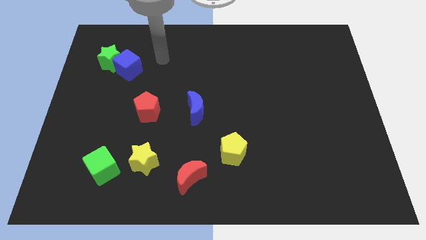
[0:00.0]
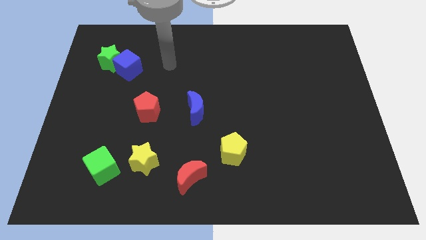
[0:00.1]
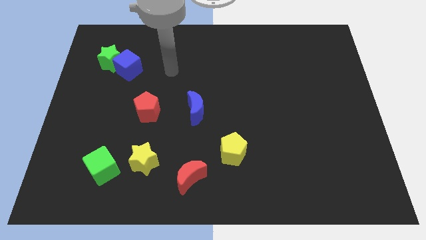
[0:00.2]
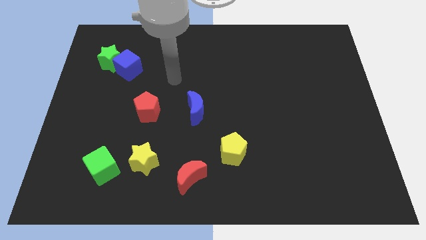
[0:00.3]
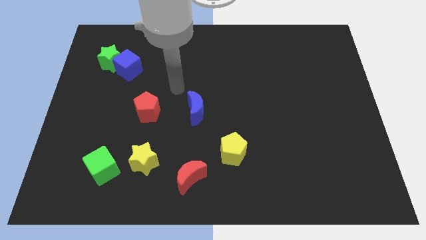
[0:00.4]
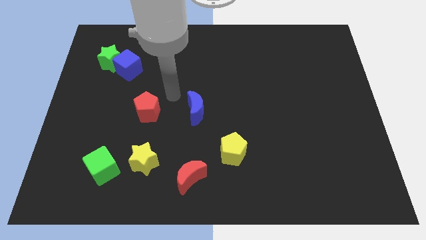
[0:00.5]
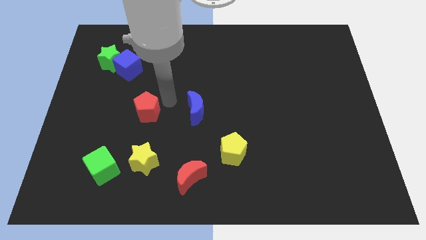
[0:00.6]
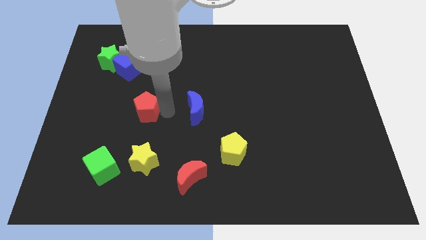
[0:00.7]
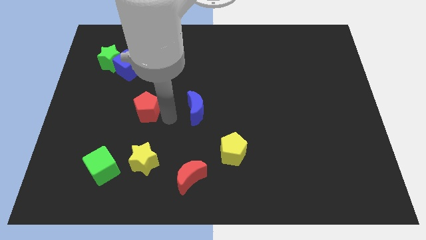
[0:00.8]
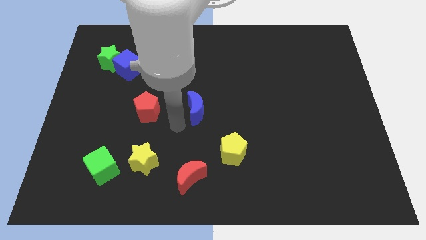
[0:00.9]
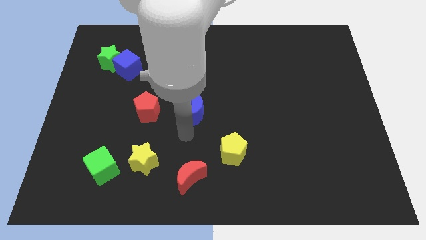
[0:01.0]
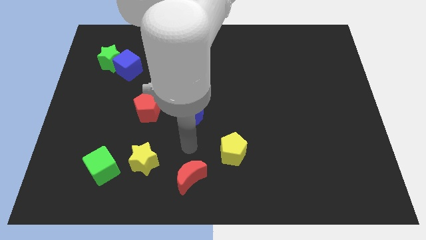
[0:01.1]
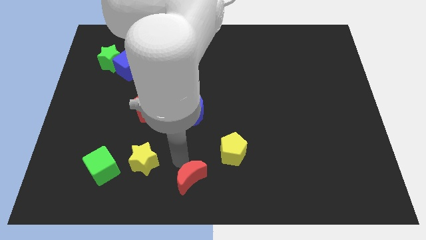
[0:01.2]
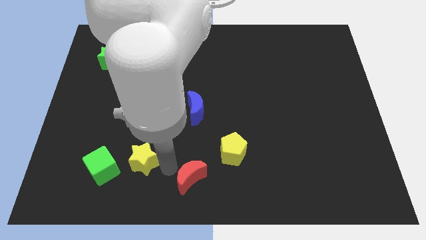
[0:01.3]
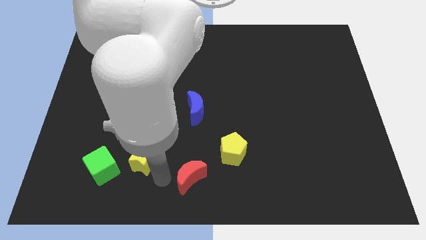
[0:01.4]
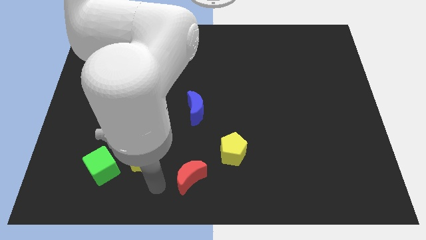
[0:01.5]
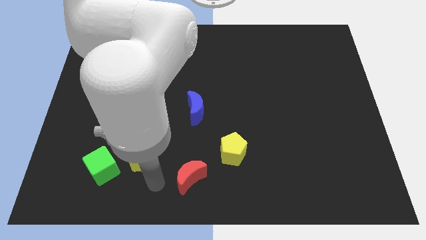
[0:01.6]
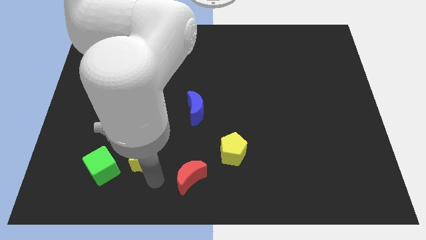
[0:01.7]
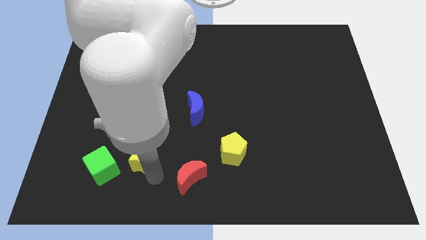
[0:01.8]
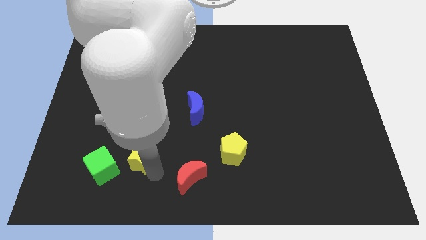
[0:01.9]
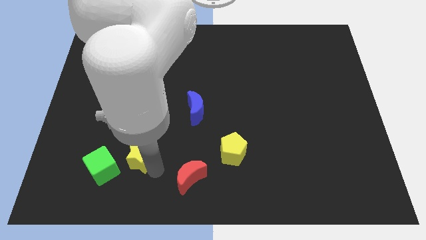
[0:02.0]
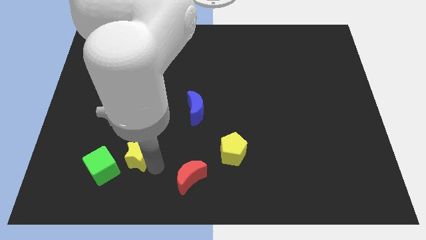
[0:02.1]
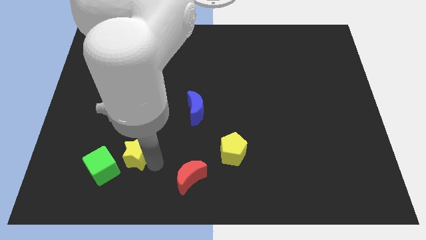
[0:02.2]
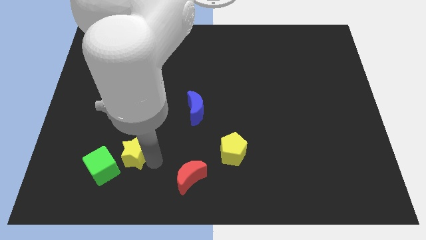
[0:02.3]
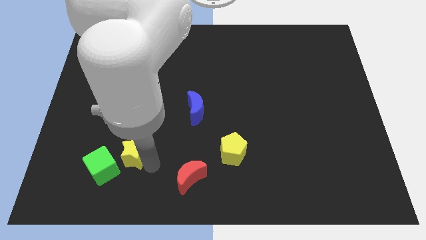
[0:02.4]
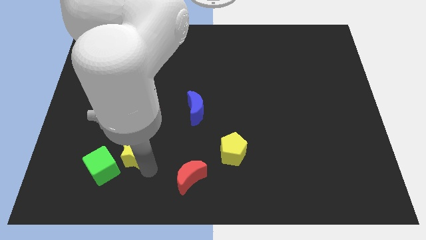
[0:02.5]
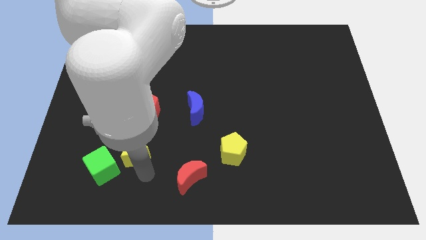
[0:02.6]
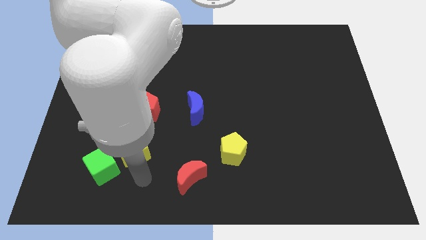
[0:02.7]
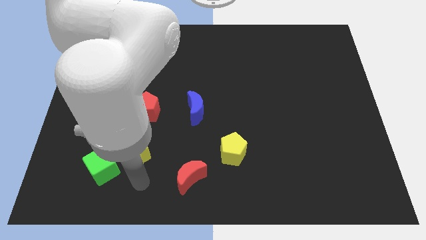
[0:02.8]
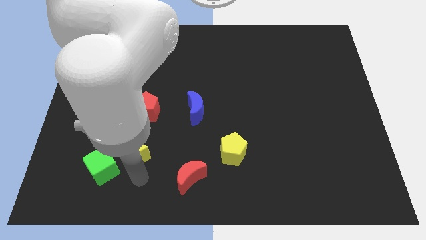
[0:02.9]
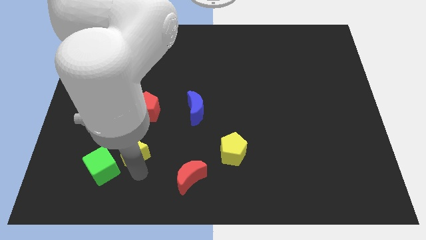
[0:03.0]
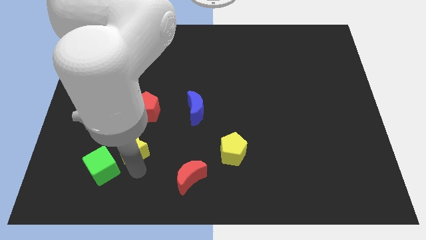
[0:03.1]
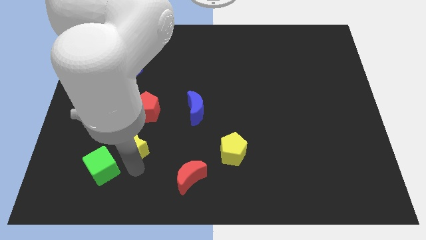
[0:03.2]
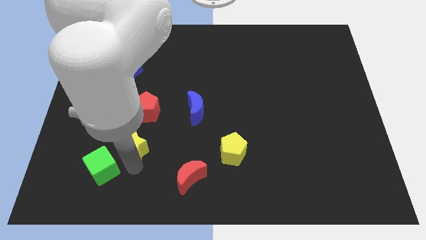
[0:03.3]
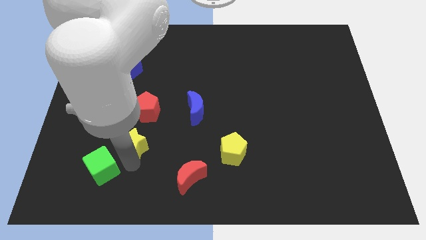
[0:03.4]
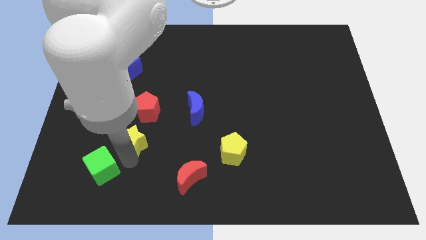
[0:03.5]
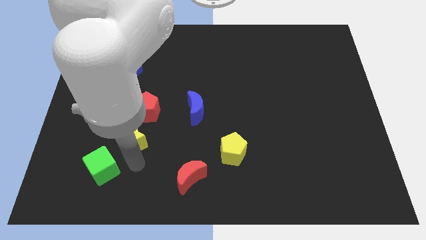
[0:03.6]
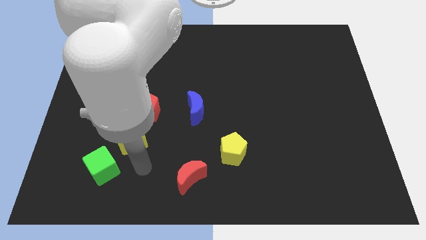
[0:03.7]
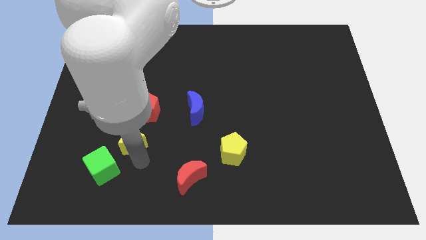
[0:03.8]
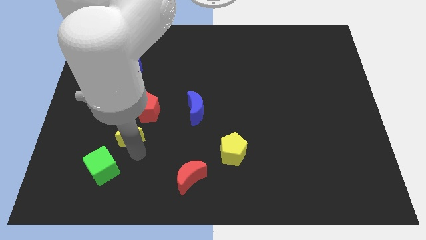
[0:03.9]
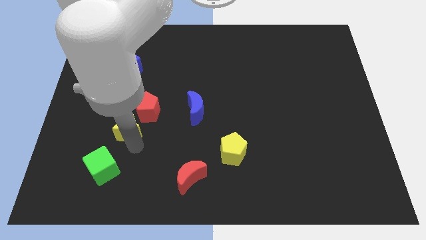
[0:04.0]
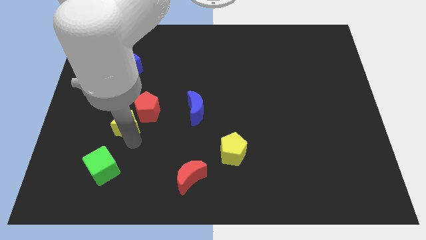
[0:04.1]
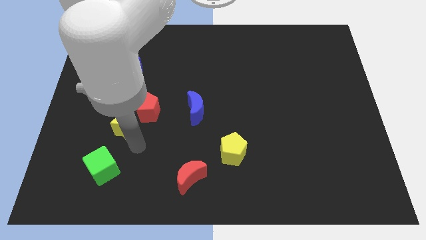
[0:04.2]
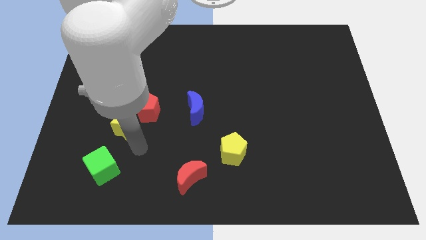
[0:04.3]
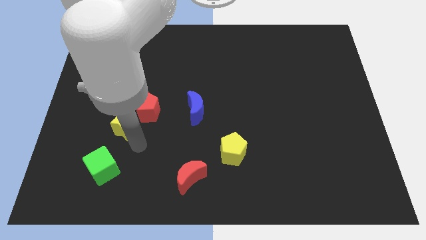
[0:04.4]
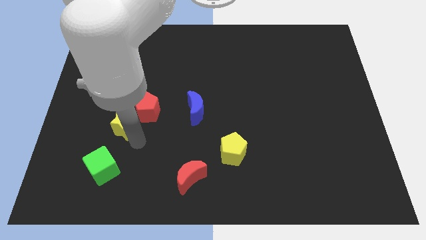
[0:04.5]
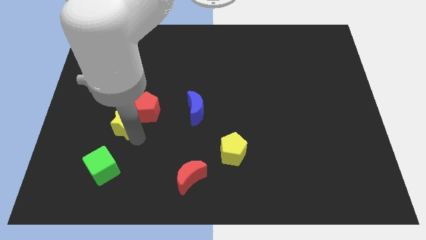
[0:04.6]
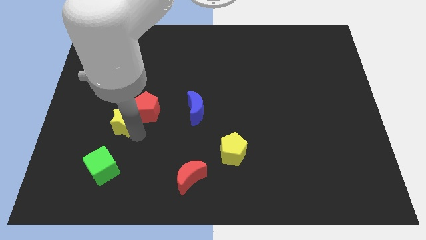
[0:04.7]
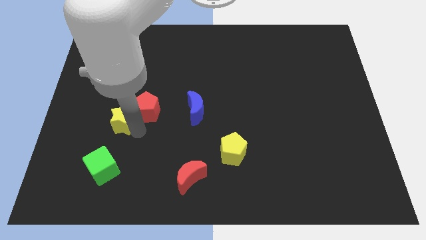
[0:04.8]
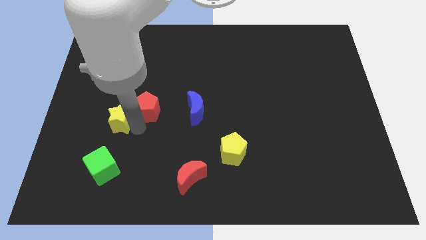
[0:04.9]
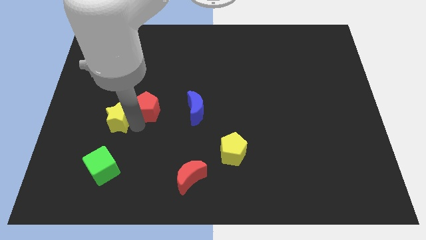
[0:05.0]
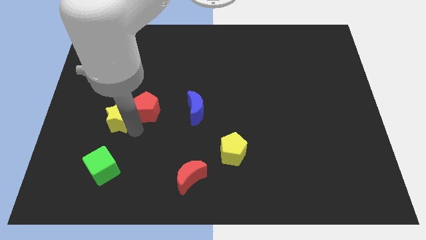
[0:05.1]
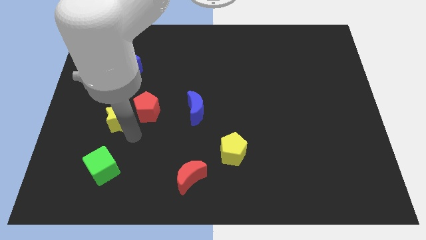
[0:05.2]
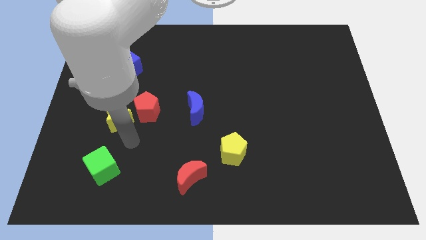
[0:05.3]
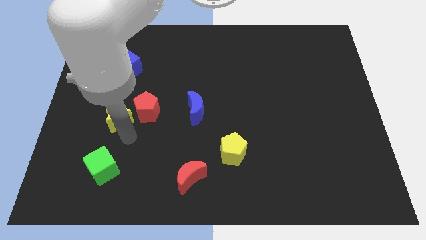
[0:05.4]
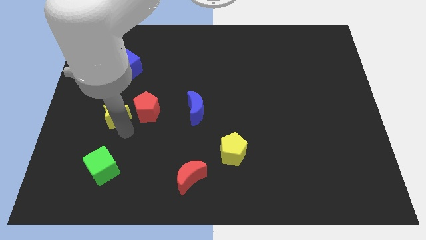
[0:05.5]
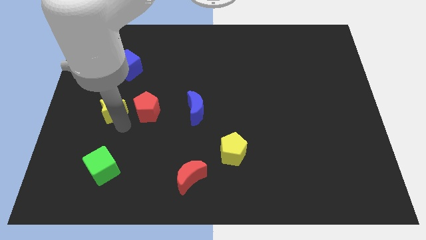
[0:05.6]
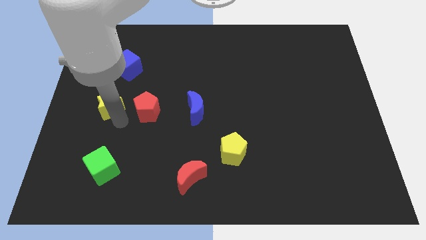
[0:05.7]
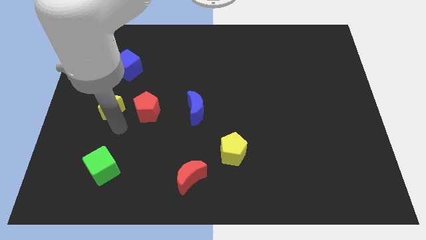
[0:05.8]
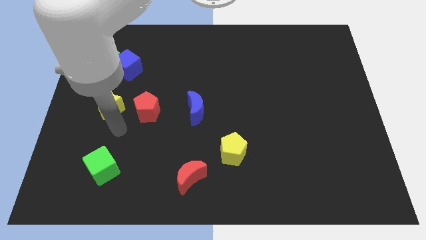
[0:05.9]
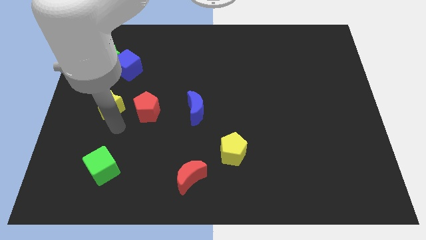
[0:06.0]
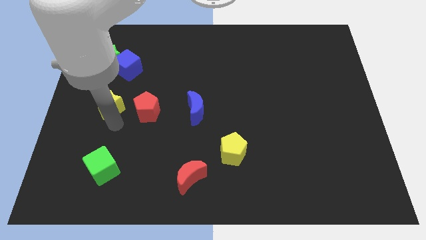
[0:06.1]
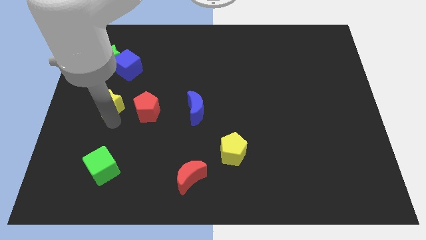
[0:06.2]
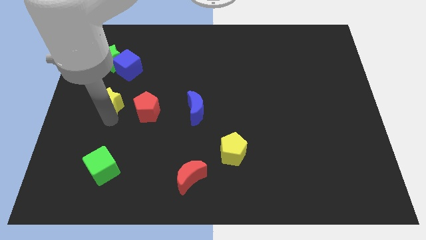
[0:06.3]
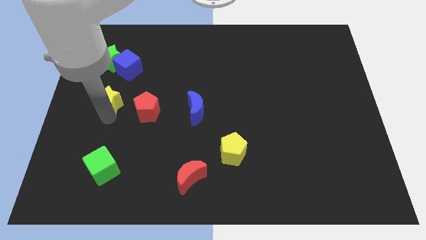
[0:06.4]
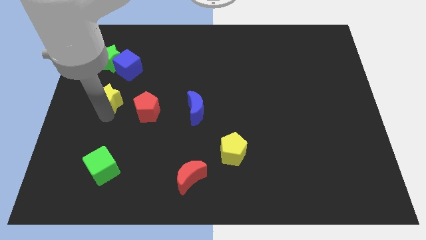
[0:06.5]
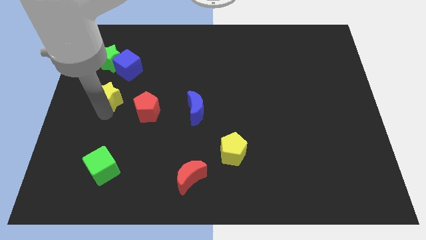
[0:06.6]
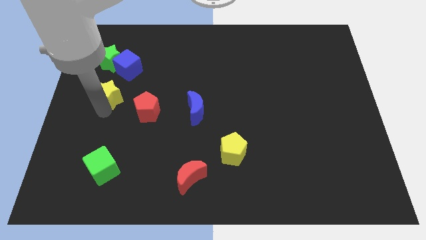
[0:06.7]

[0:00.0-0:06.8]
move the yellow star to the bottom left of the blue cube
